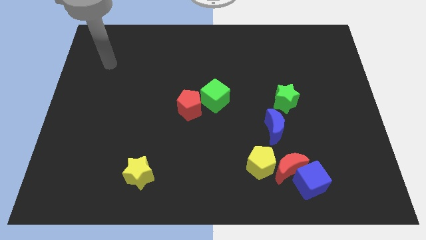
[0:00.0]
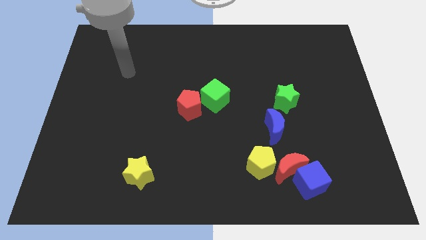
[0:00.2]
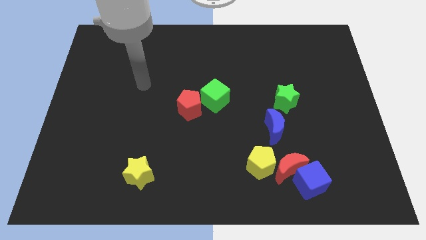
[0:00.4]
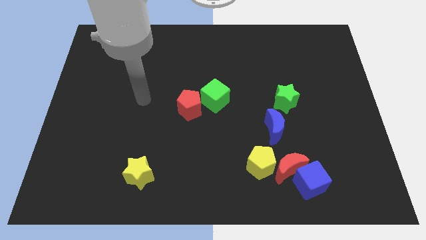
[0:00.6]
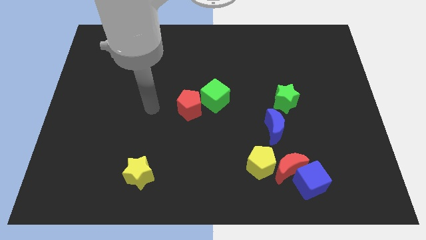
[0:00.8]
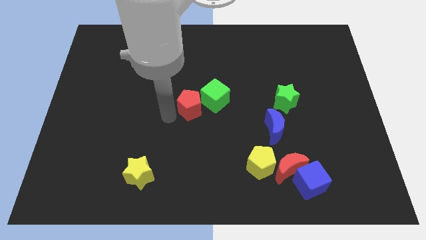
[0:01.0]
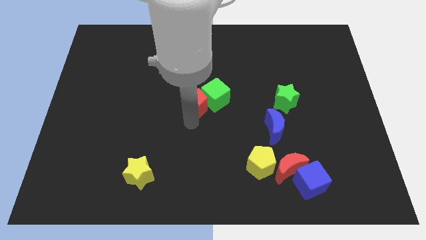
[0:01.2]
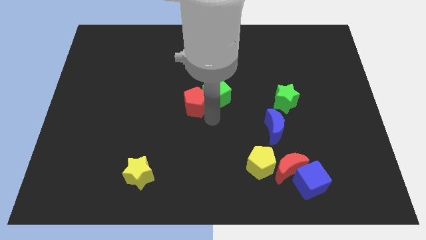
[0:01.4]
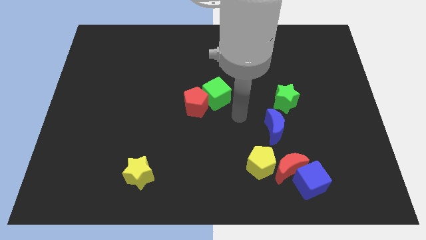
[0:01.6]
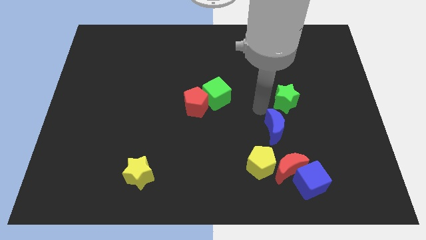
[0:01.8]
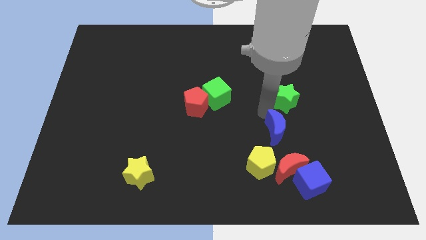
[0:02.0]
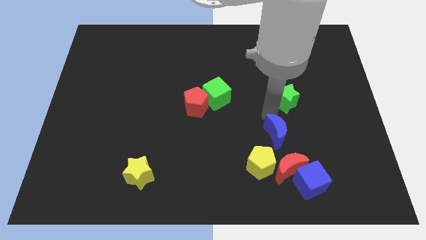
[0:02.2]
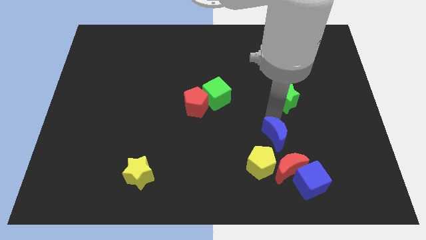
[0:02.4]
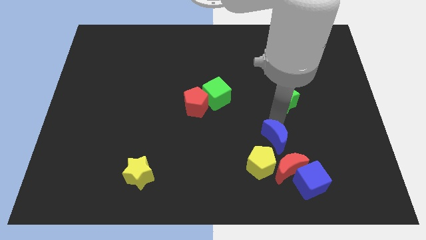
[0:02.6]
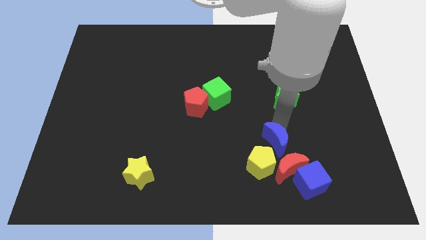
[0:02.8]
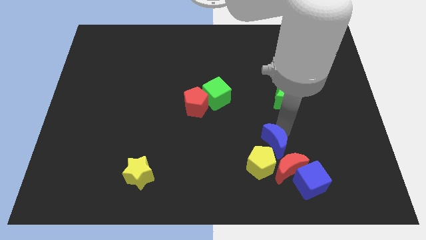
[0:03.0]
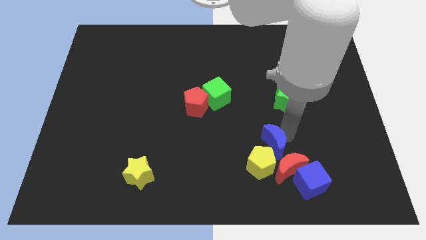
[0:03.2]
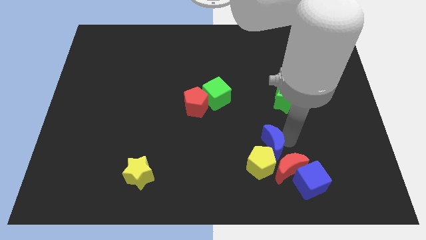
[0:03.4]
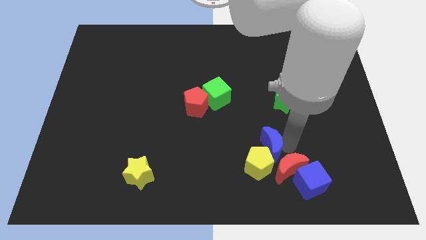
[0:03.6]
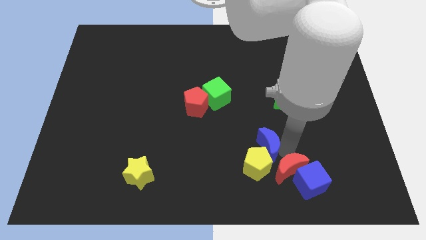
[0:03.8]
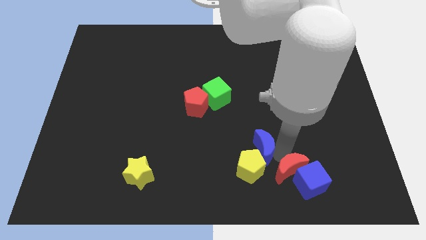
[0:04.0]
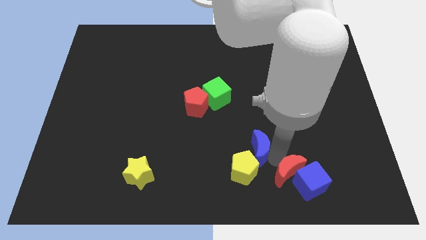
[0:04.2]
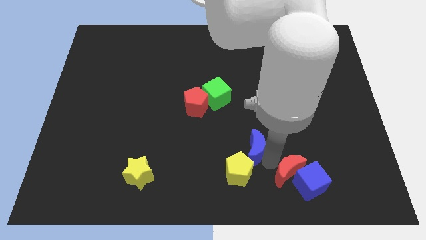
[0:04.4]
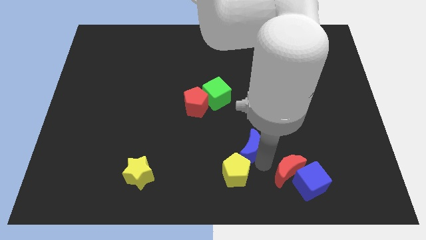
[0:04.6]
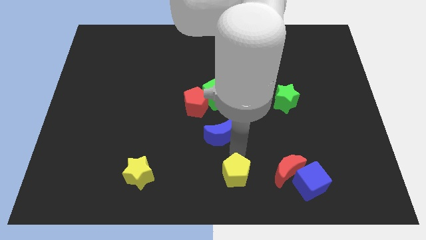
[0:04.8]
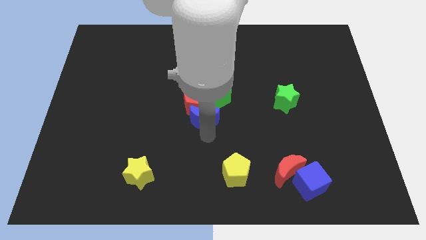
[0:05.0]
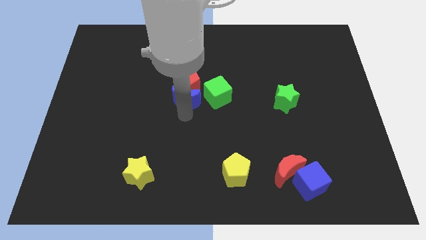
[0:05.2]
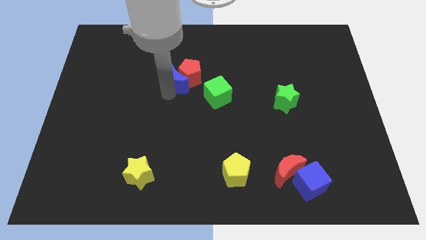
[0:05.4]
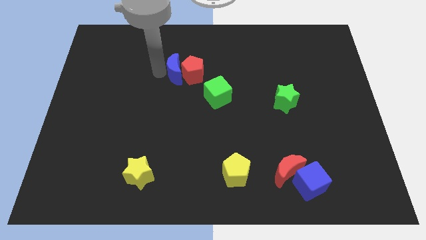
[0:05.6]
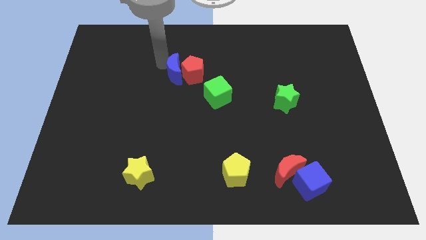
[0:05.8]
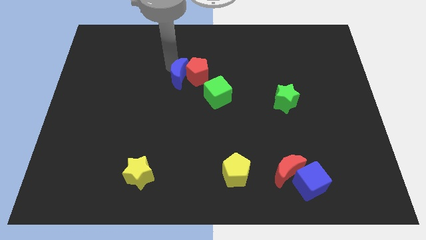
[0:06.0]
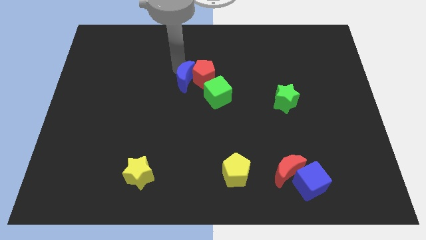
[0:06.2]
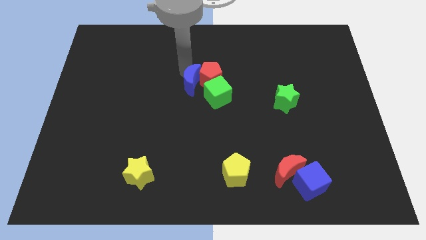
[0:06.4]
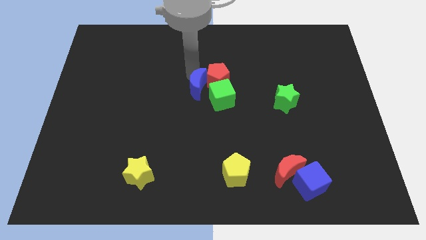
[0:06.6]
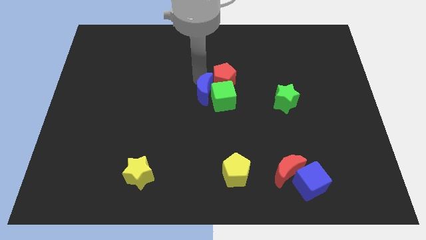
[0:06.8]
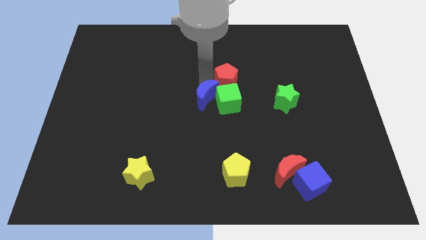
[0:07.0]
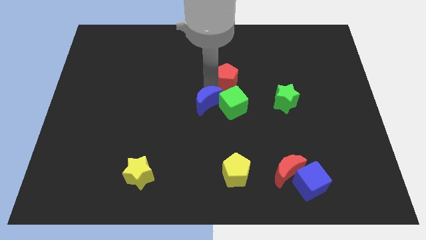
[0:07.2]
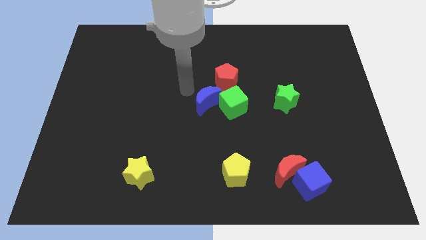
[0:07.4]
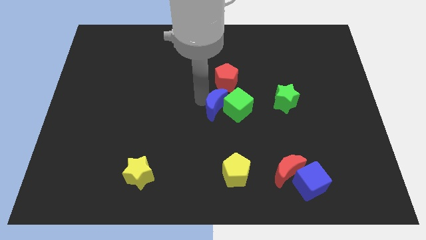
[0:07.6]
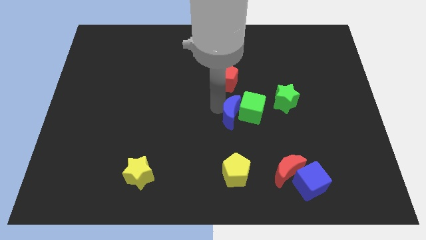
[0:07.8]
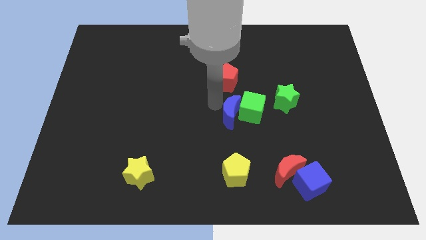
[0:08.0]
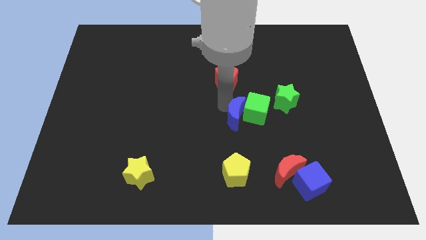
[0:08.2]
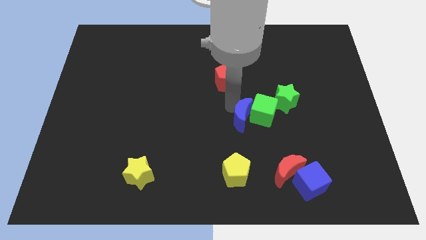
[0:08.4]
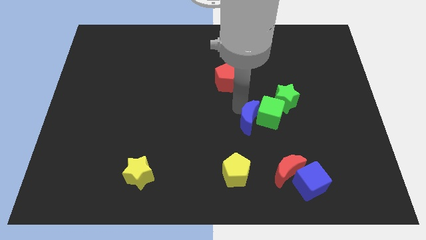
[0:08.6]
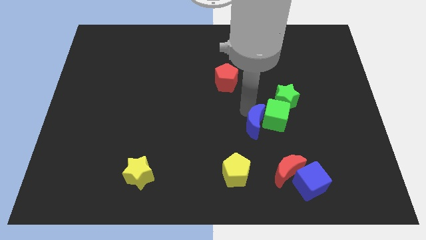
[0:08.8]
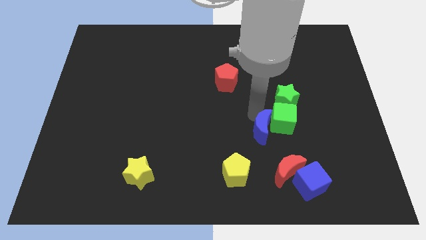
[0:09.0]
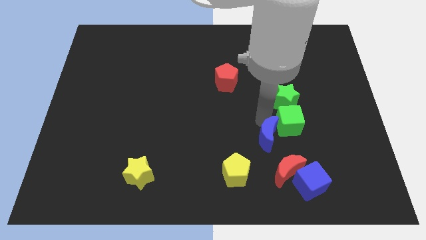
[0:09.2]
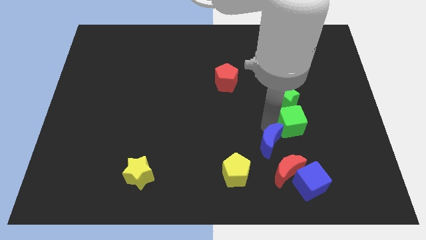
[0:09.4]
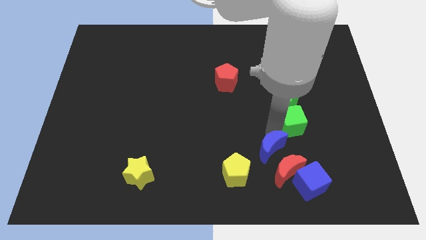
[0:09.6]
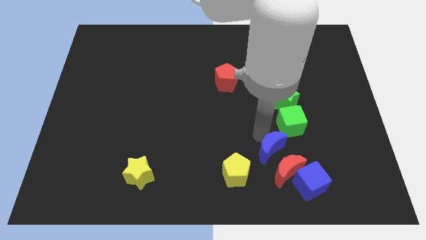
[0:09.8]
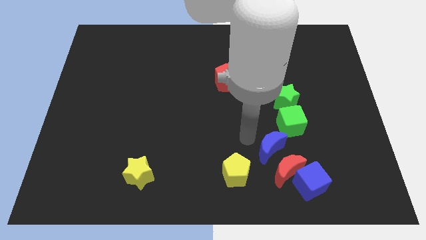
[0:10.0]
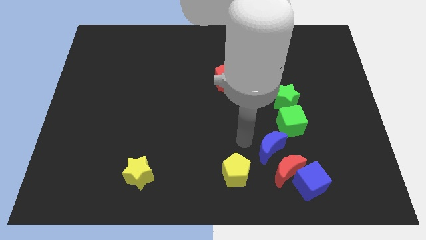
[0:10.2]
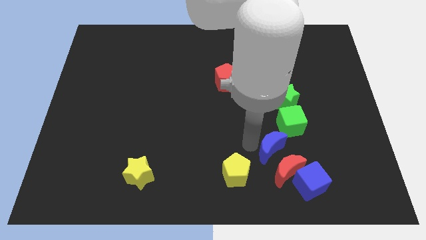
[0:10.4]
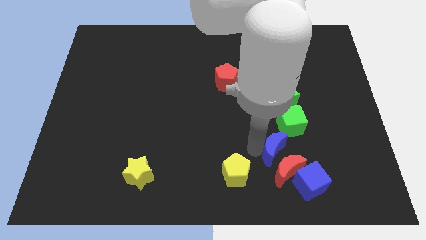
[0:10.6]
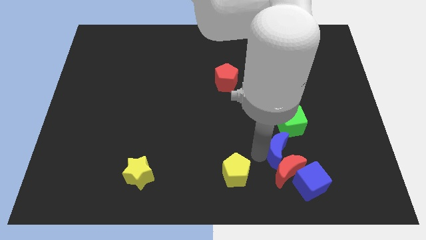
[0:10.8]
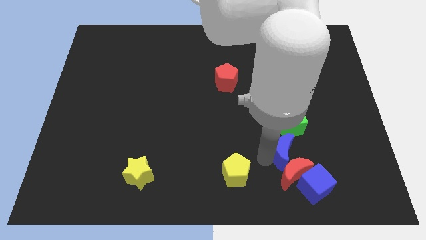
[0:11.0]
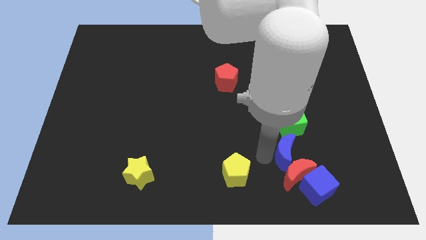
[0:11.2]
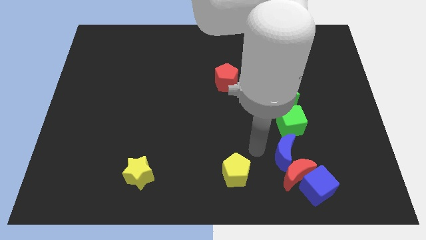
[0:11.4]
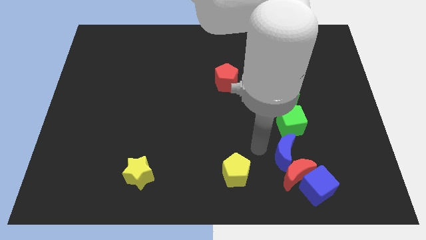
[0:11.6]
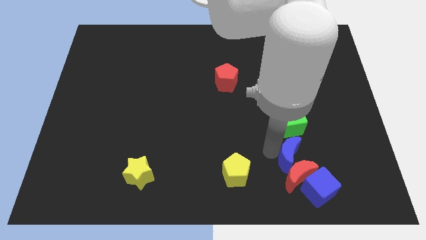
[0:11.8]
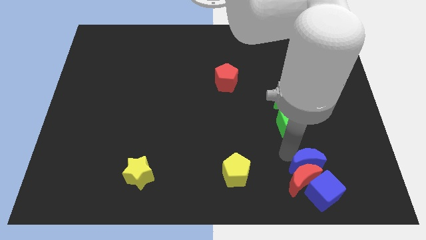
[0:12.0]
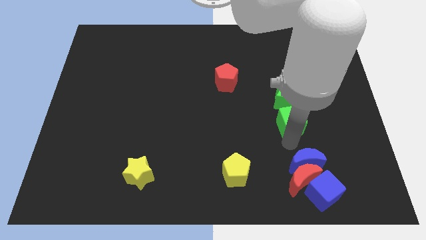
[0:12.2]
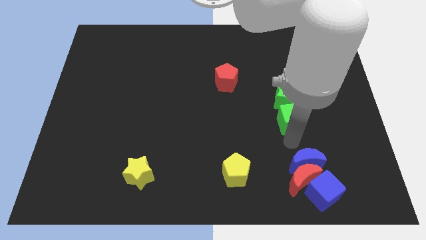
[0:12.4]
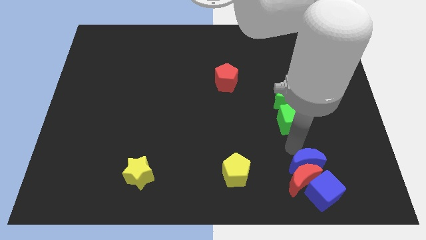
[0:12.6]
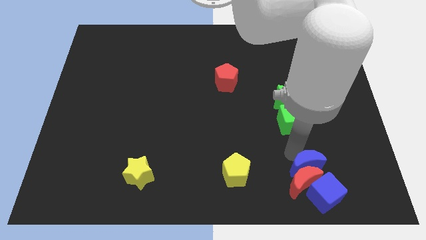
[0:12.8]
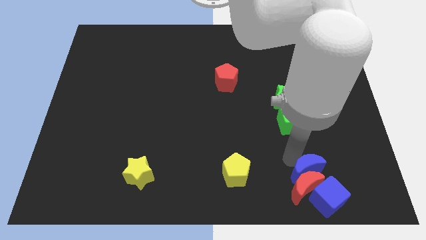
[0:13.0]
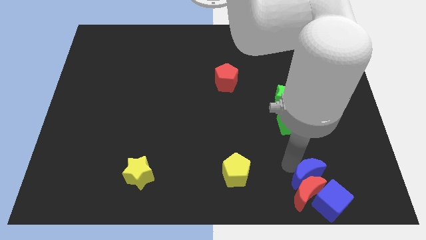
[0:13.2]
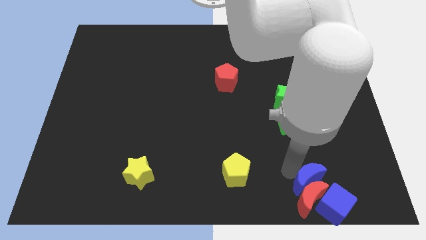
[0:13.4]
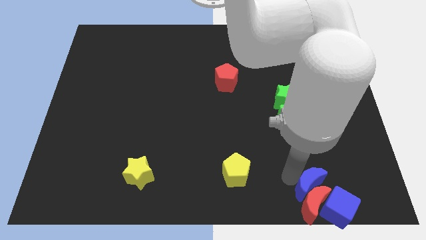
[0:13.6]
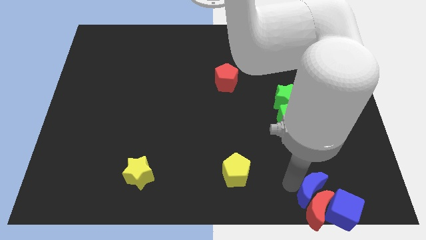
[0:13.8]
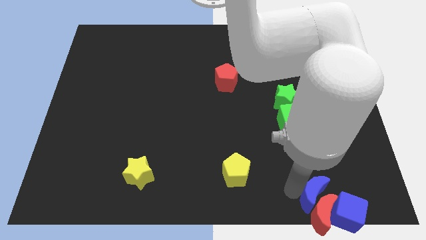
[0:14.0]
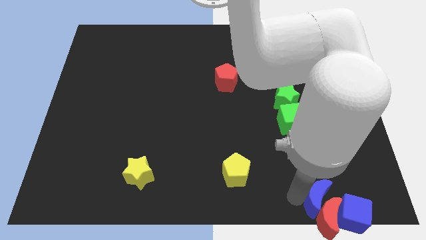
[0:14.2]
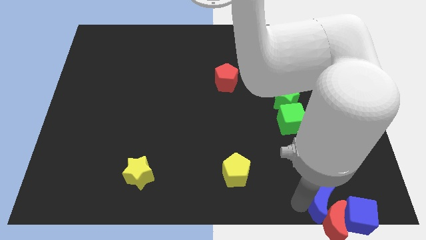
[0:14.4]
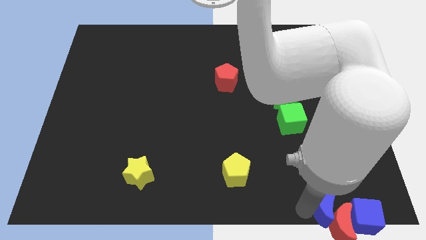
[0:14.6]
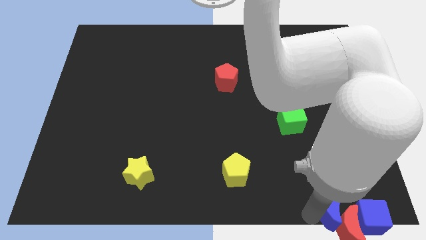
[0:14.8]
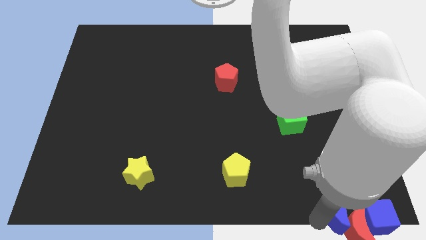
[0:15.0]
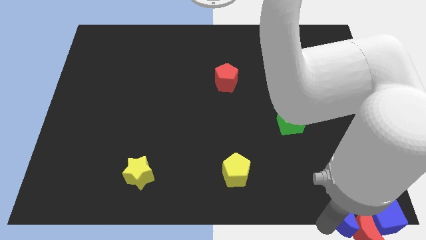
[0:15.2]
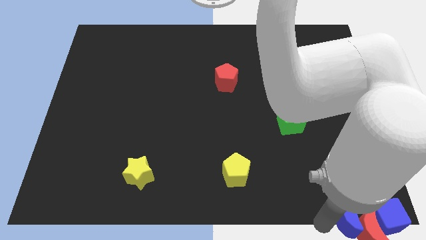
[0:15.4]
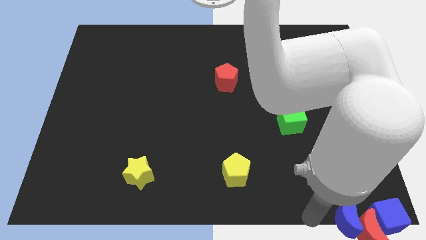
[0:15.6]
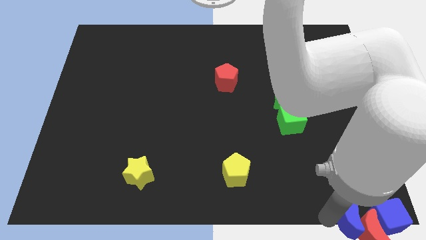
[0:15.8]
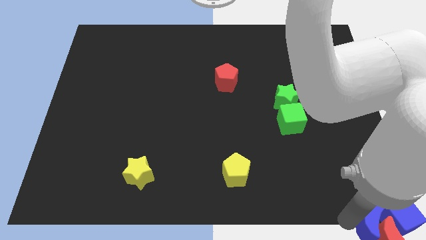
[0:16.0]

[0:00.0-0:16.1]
put the blue moon next to the blue cube
